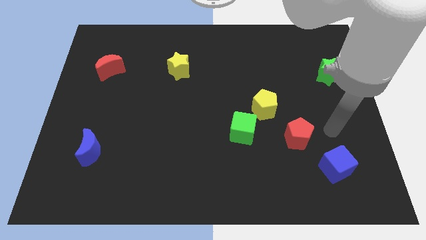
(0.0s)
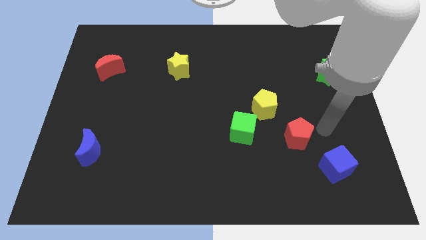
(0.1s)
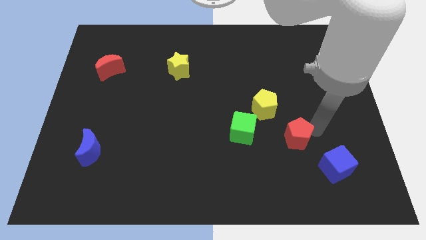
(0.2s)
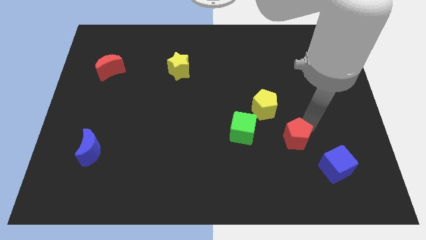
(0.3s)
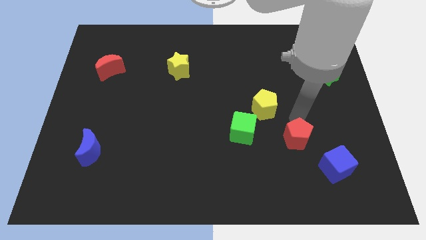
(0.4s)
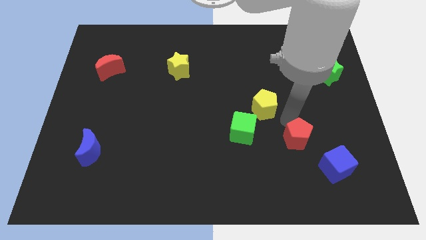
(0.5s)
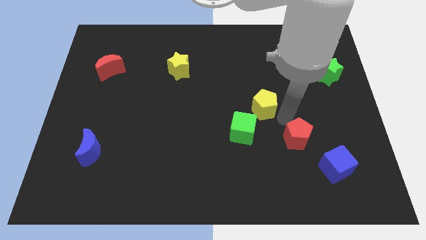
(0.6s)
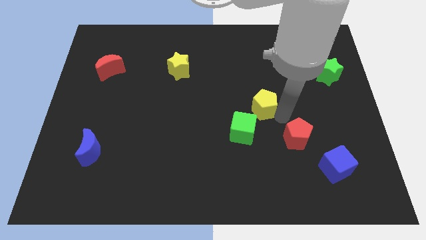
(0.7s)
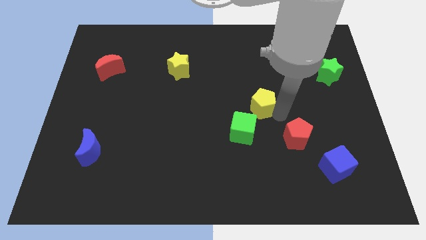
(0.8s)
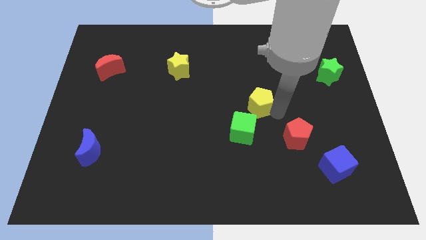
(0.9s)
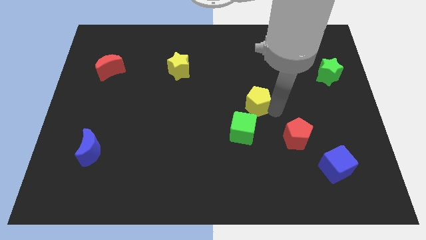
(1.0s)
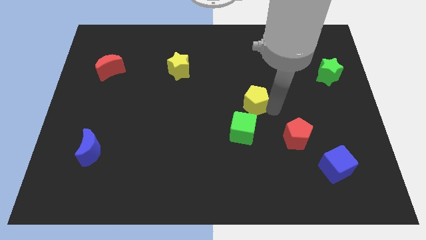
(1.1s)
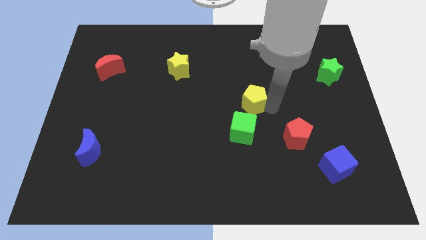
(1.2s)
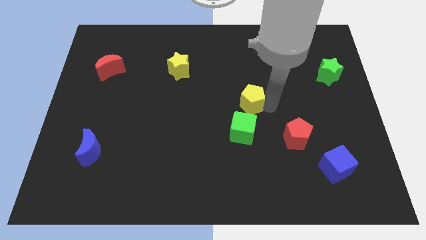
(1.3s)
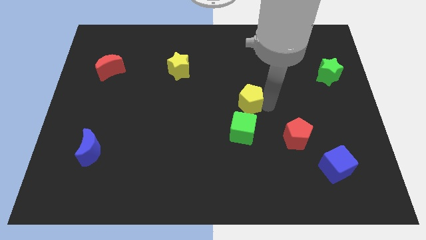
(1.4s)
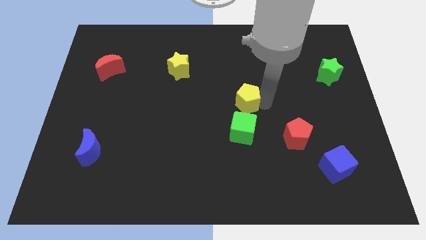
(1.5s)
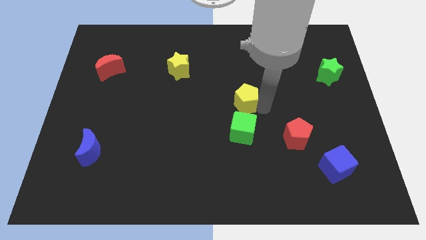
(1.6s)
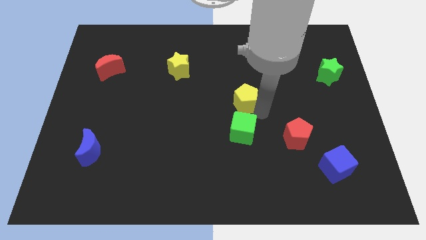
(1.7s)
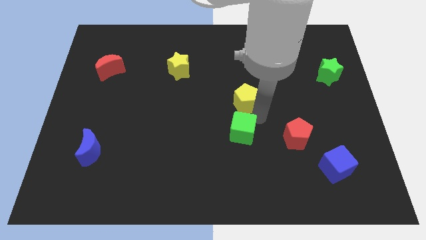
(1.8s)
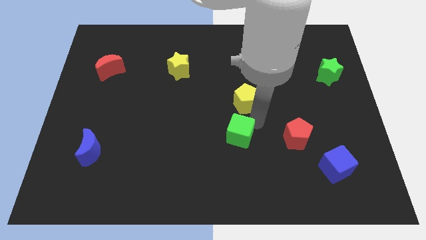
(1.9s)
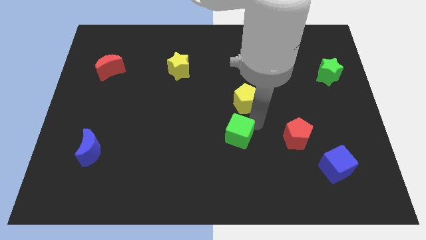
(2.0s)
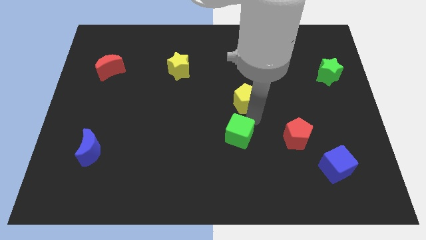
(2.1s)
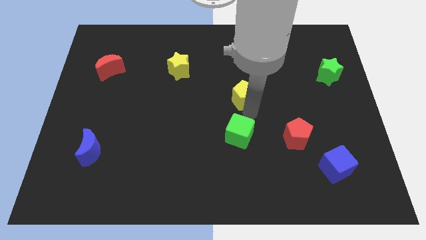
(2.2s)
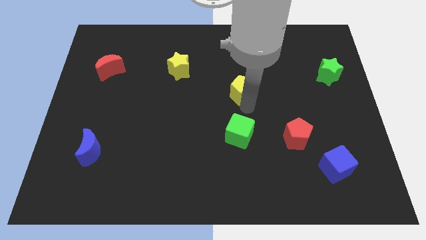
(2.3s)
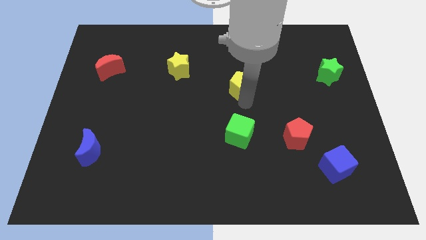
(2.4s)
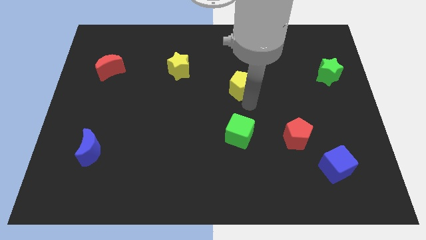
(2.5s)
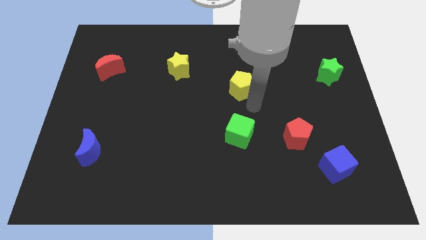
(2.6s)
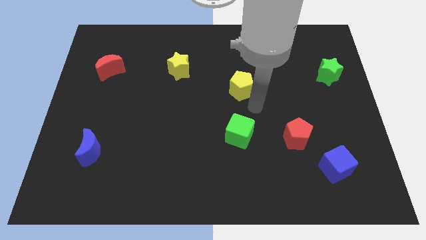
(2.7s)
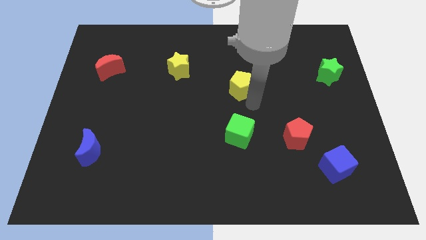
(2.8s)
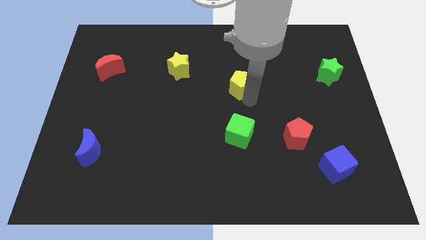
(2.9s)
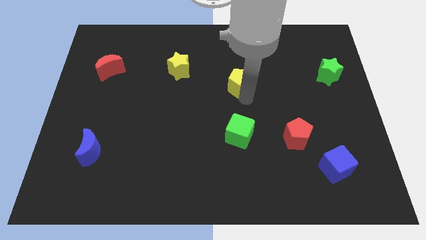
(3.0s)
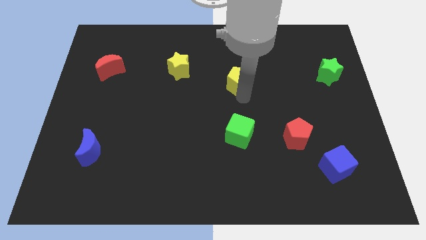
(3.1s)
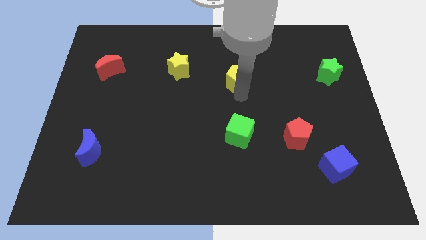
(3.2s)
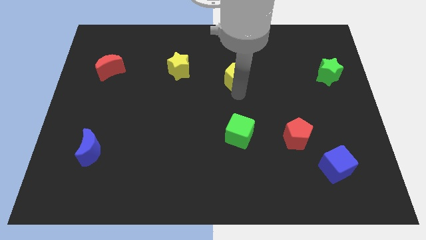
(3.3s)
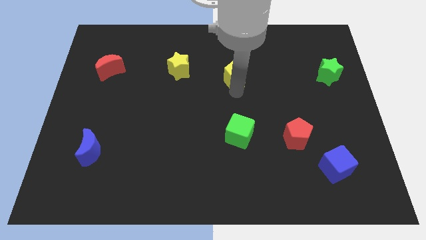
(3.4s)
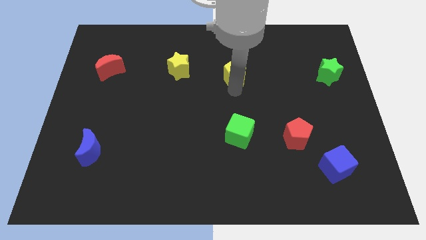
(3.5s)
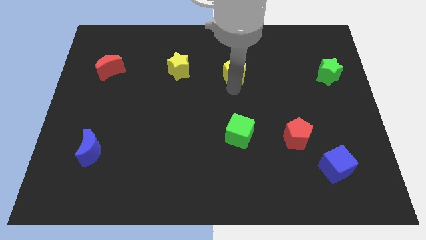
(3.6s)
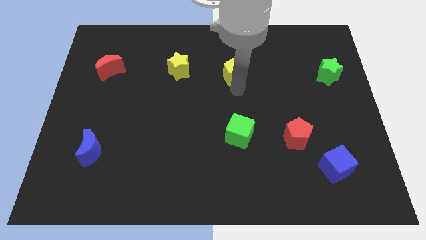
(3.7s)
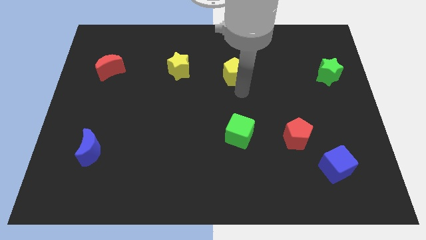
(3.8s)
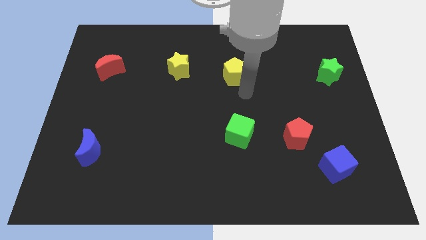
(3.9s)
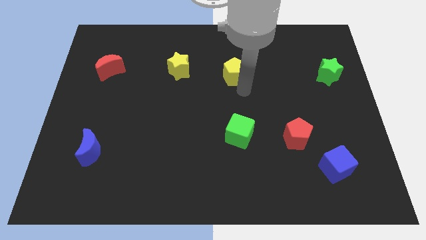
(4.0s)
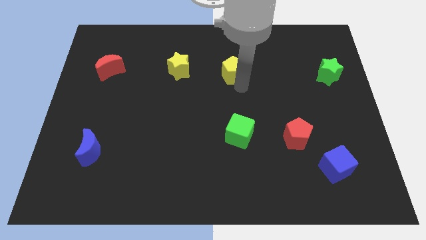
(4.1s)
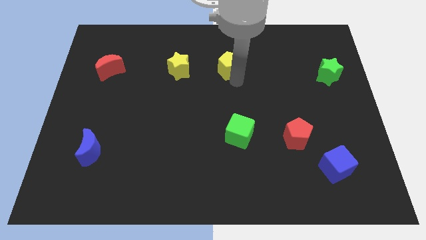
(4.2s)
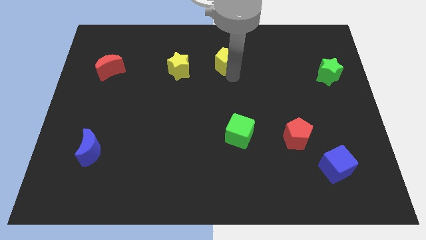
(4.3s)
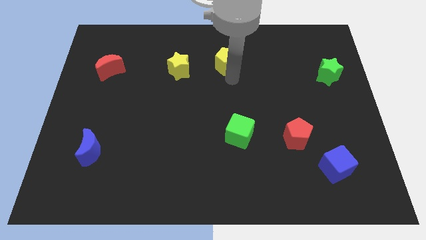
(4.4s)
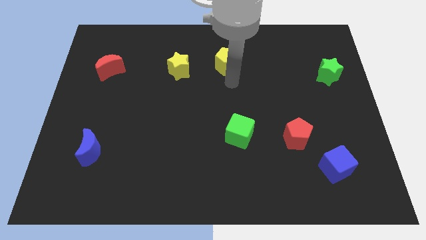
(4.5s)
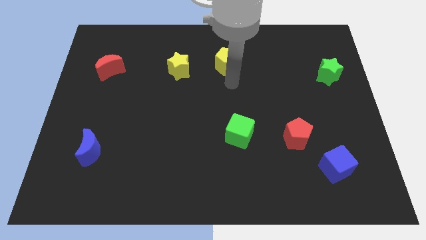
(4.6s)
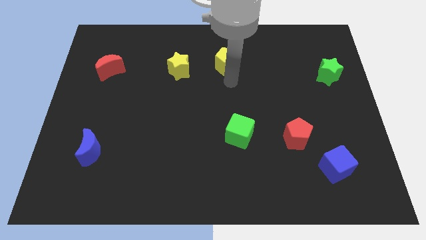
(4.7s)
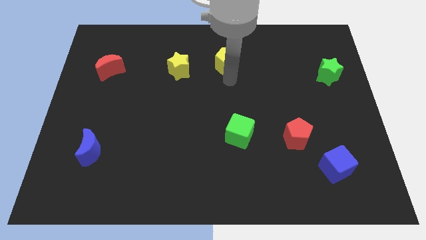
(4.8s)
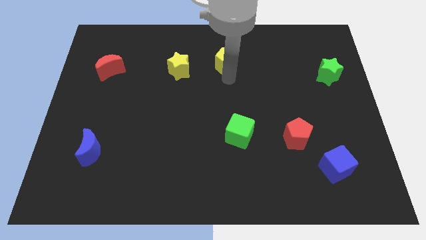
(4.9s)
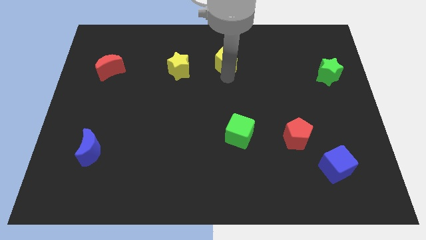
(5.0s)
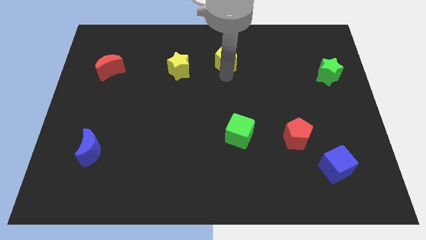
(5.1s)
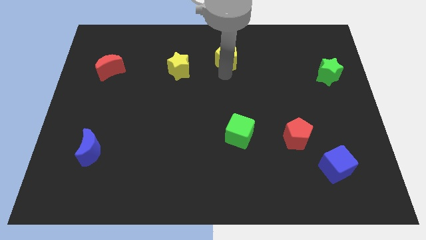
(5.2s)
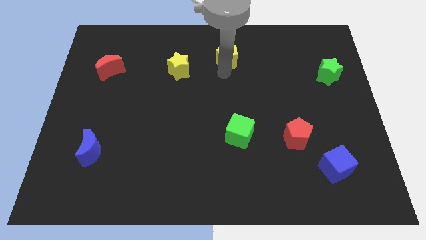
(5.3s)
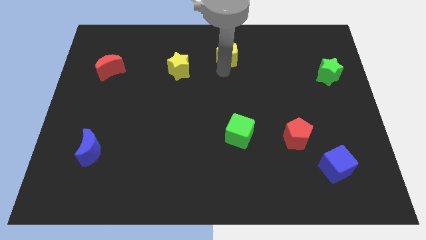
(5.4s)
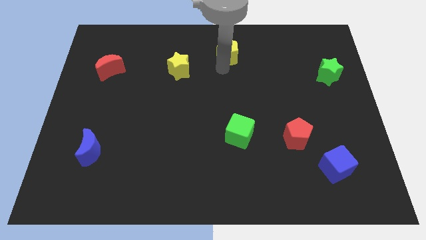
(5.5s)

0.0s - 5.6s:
push the yellow pentagon to the top side

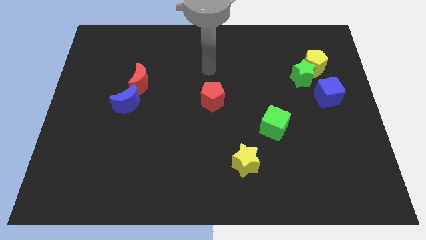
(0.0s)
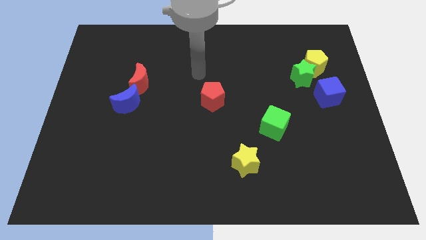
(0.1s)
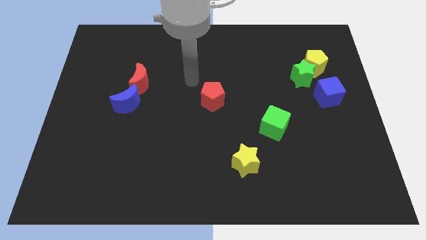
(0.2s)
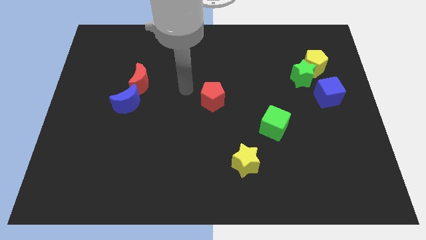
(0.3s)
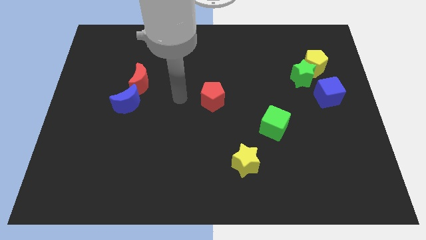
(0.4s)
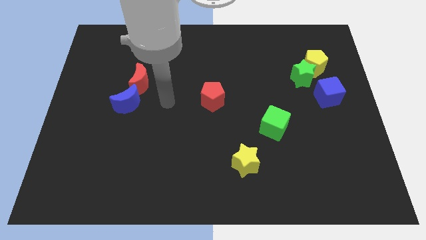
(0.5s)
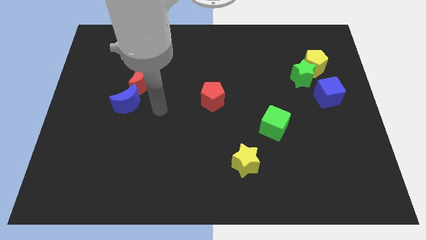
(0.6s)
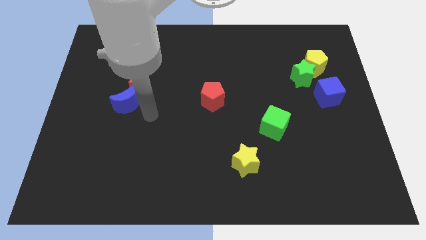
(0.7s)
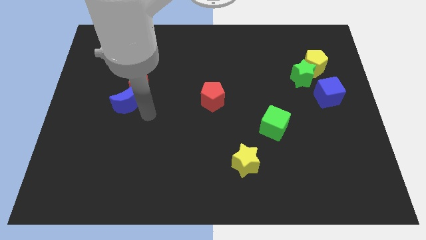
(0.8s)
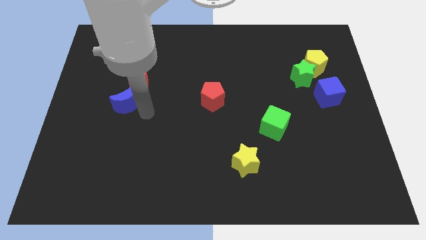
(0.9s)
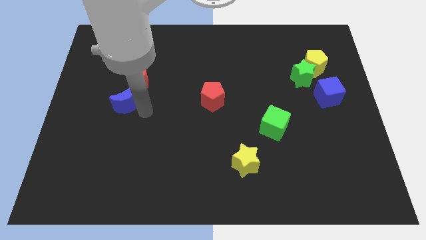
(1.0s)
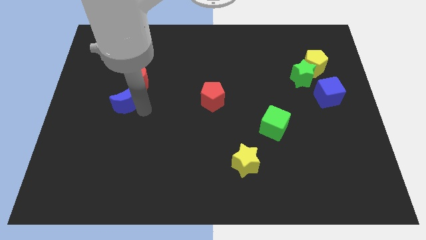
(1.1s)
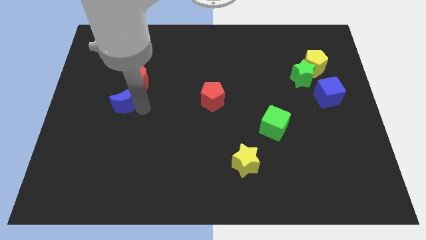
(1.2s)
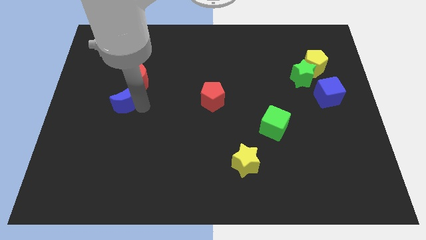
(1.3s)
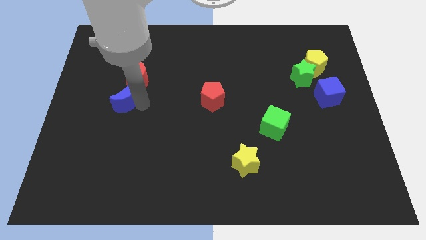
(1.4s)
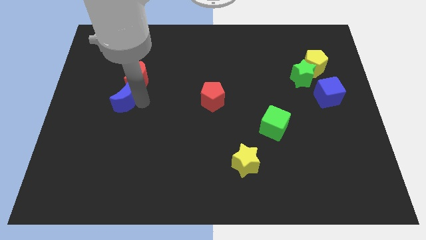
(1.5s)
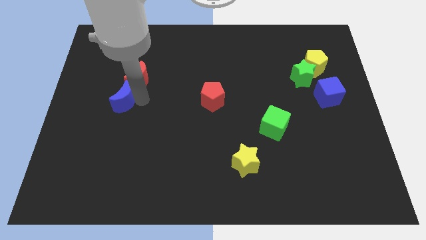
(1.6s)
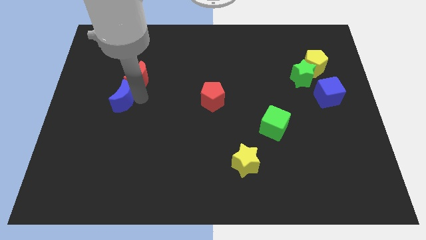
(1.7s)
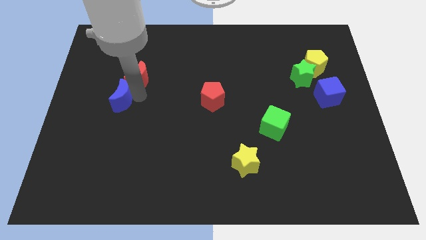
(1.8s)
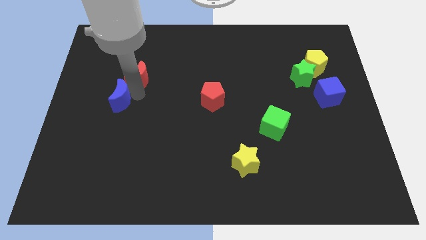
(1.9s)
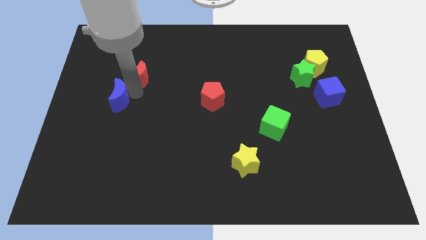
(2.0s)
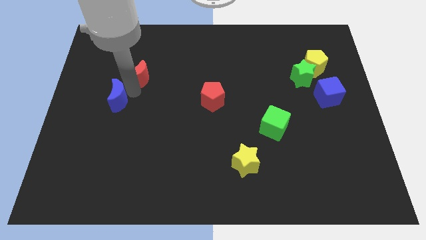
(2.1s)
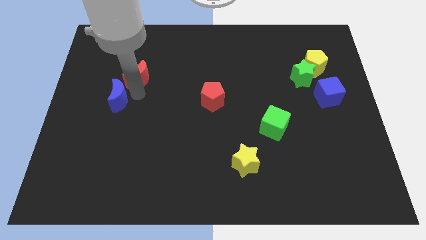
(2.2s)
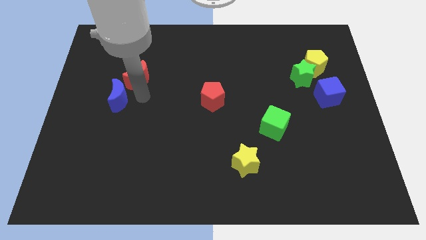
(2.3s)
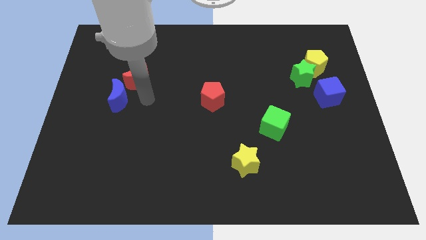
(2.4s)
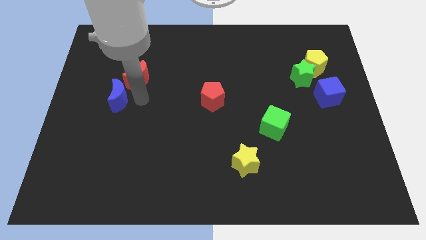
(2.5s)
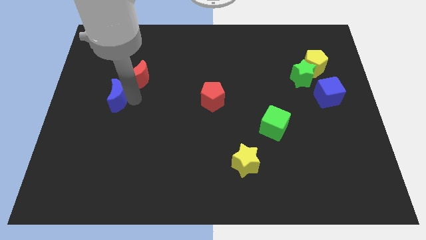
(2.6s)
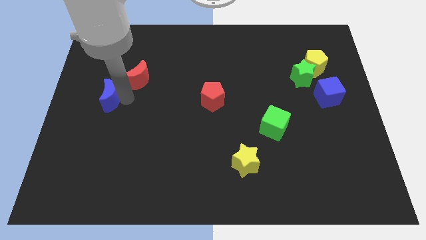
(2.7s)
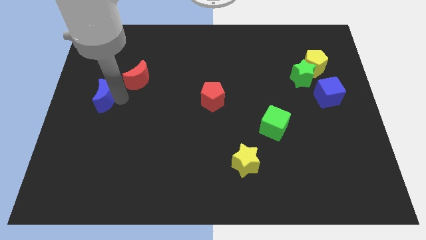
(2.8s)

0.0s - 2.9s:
put the blue moon to the left side of the board
